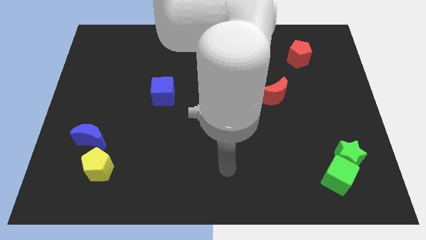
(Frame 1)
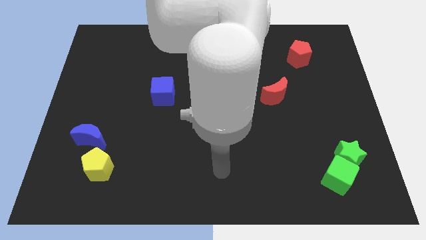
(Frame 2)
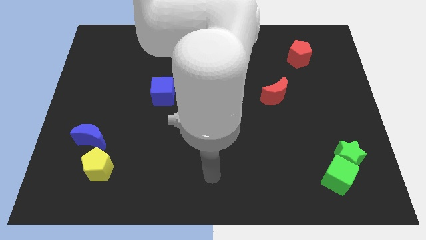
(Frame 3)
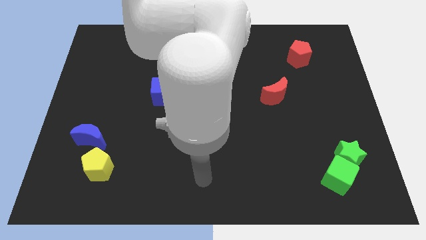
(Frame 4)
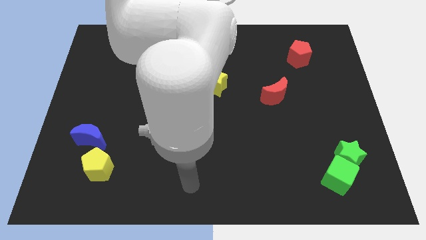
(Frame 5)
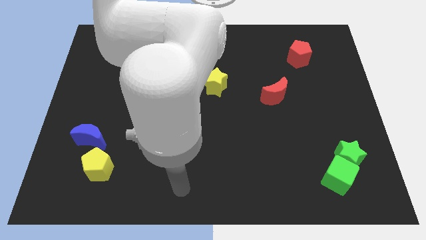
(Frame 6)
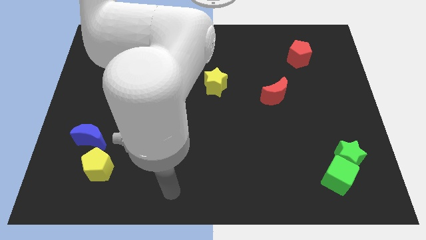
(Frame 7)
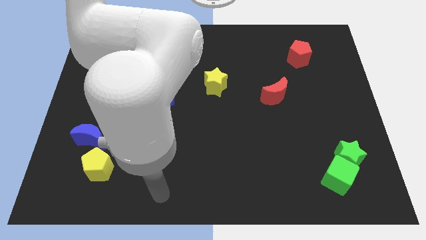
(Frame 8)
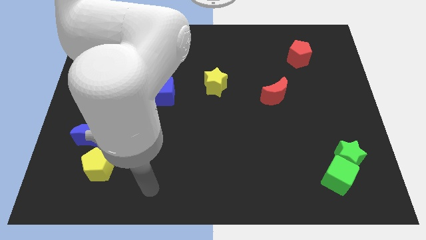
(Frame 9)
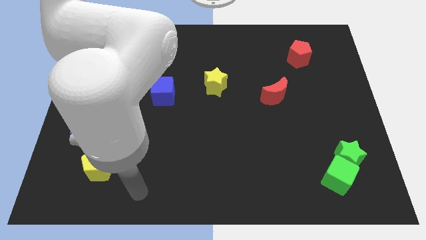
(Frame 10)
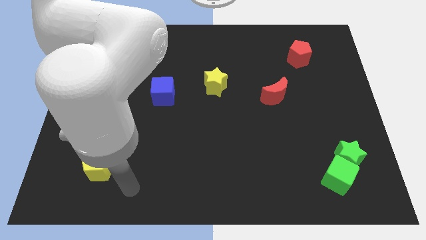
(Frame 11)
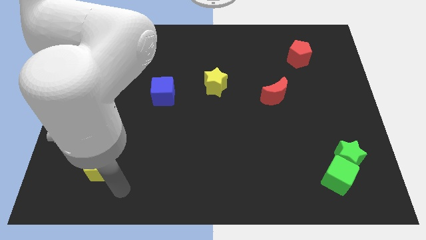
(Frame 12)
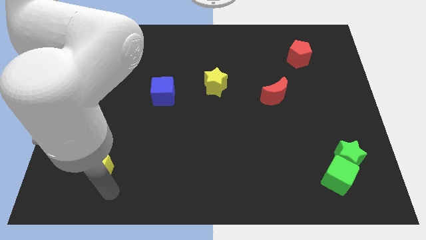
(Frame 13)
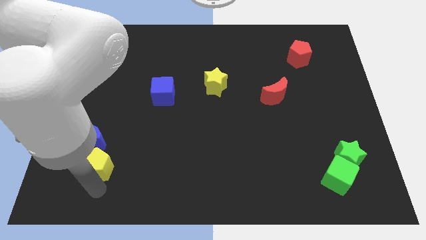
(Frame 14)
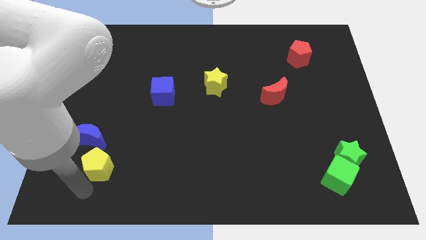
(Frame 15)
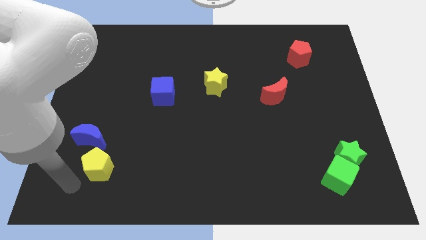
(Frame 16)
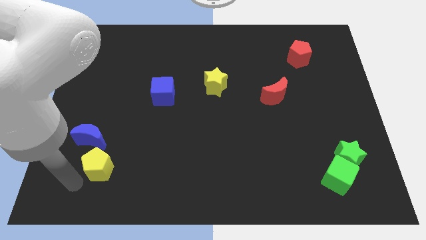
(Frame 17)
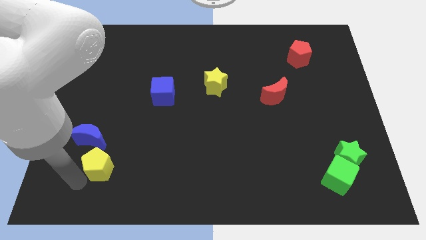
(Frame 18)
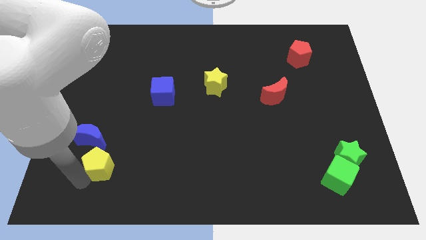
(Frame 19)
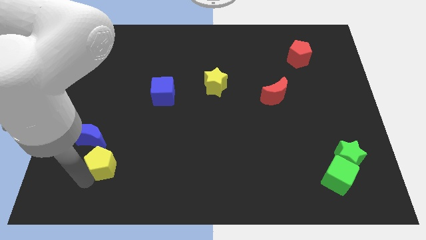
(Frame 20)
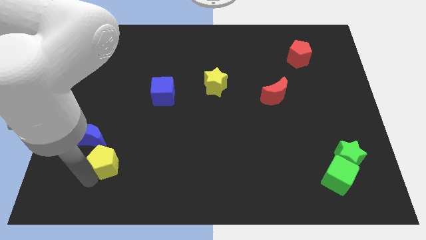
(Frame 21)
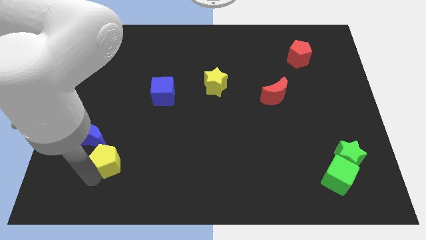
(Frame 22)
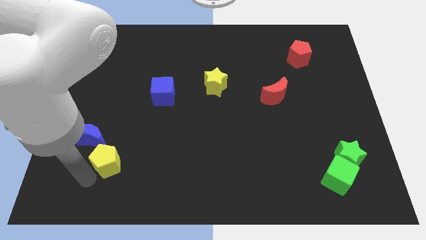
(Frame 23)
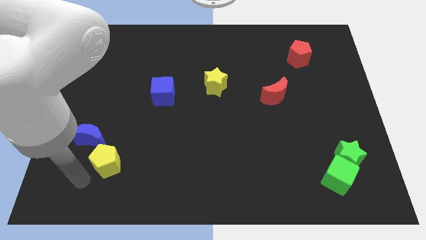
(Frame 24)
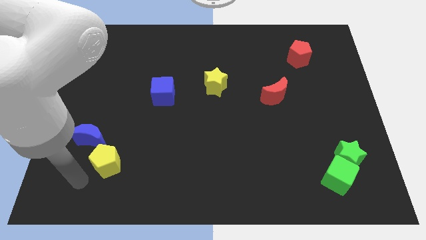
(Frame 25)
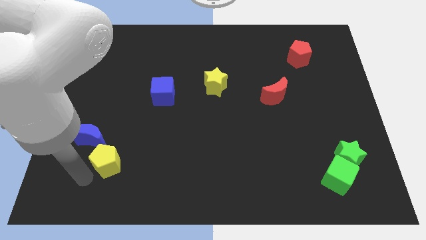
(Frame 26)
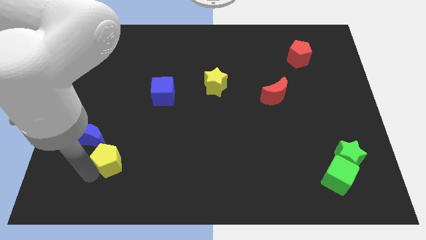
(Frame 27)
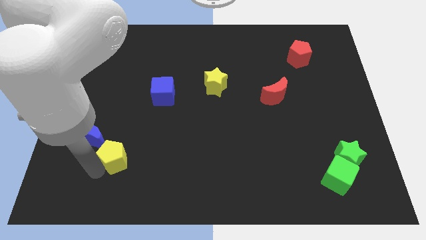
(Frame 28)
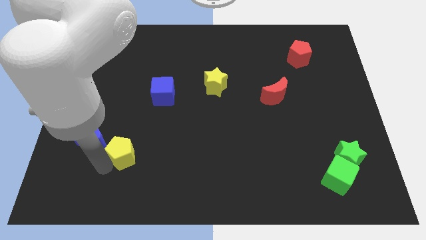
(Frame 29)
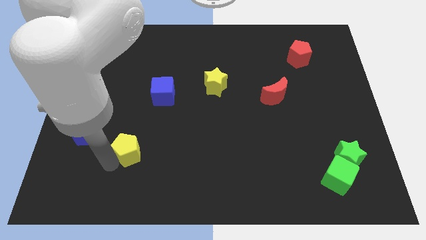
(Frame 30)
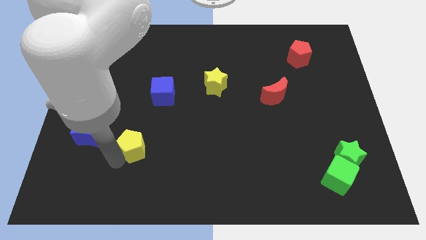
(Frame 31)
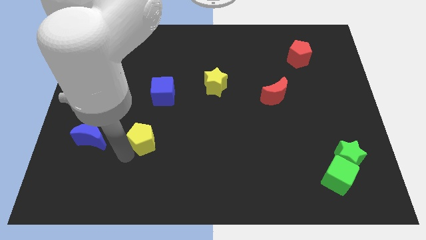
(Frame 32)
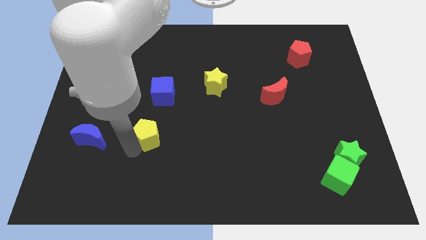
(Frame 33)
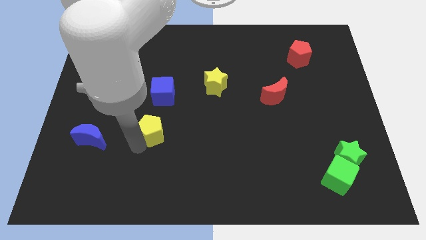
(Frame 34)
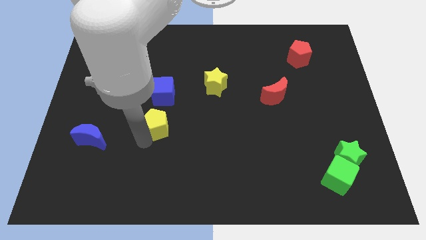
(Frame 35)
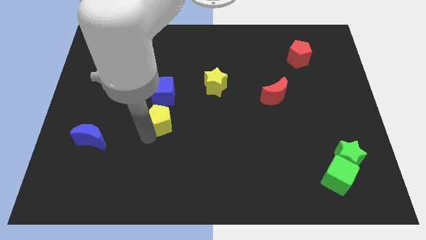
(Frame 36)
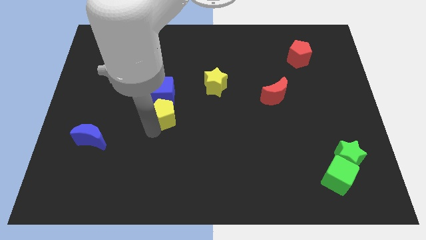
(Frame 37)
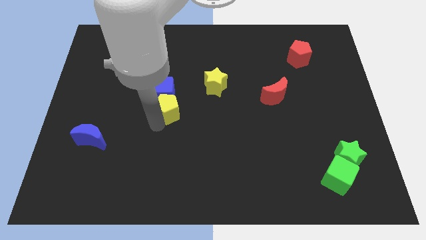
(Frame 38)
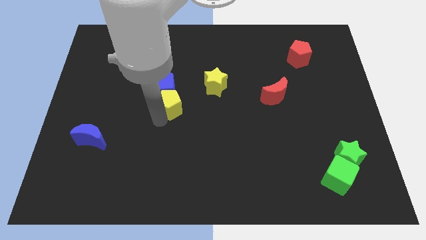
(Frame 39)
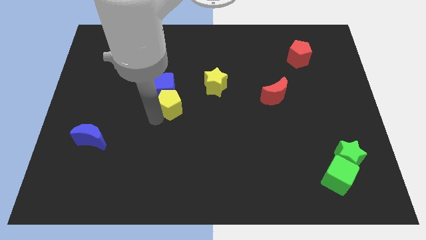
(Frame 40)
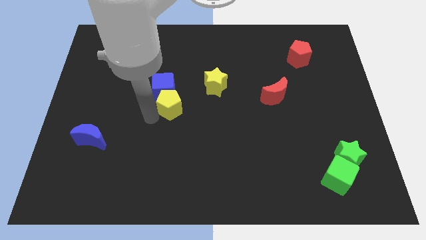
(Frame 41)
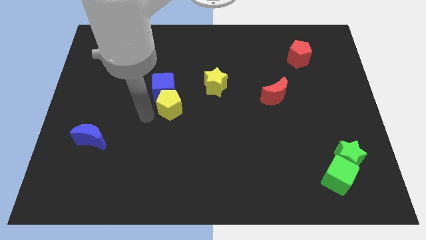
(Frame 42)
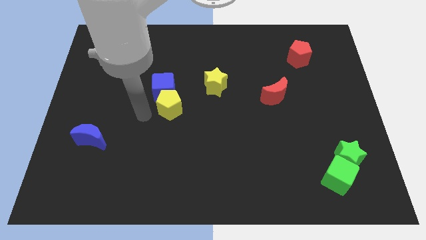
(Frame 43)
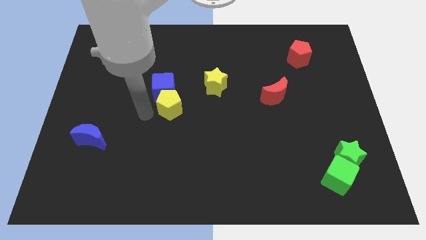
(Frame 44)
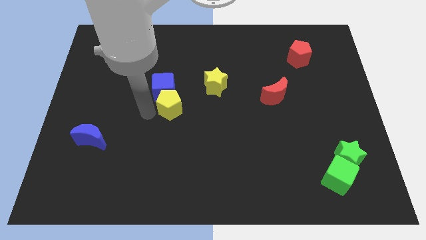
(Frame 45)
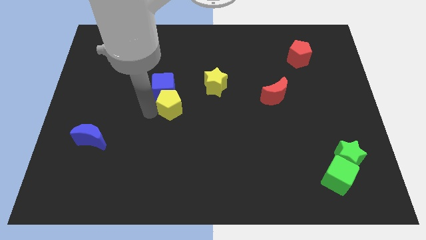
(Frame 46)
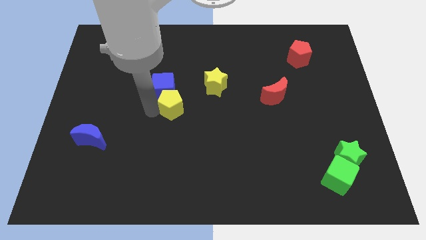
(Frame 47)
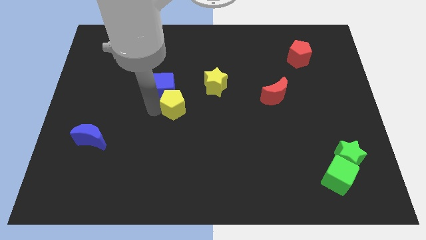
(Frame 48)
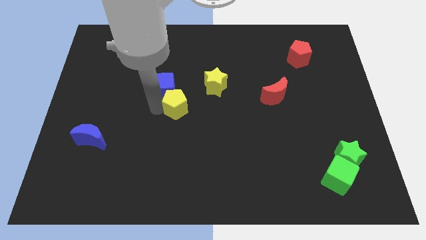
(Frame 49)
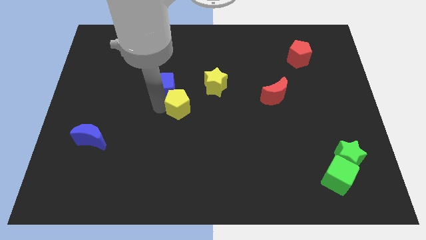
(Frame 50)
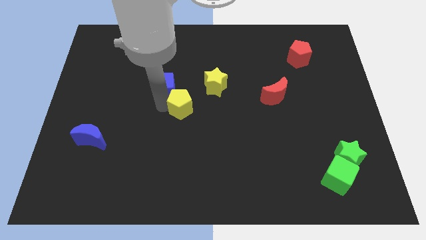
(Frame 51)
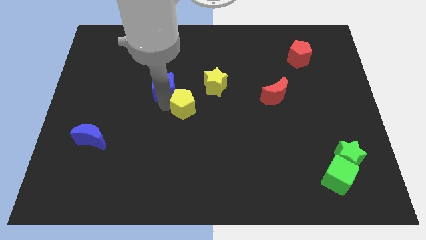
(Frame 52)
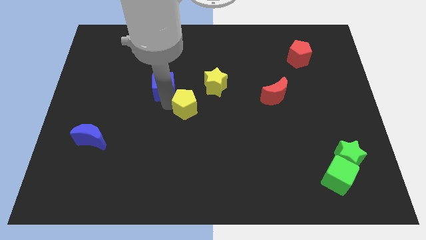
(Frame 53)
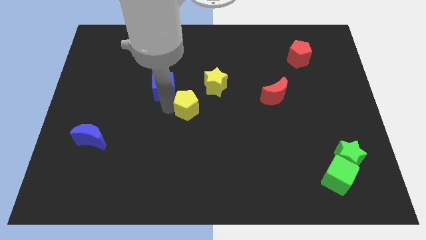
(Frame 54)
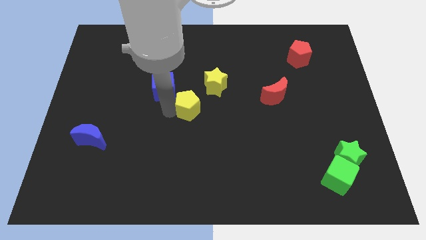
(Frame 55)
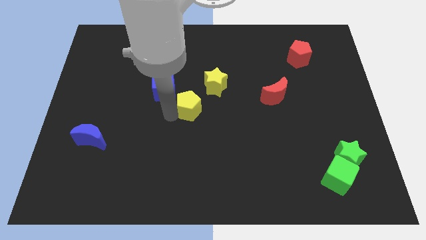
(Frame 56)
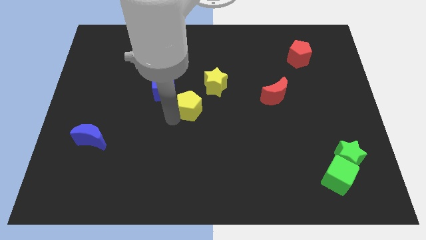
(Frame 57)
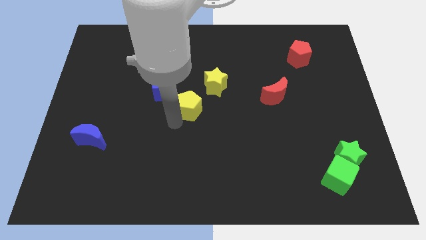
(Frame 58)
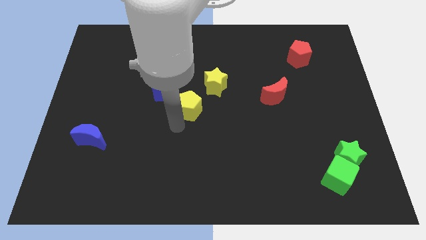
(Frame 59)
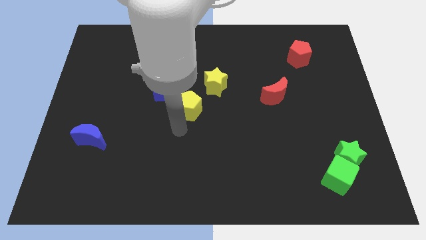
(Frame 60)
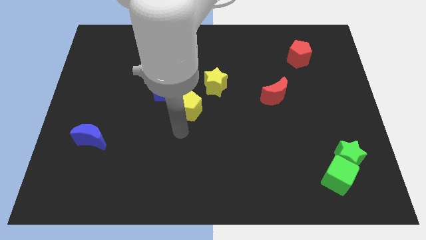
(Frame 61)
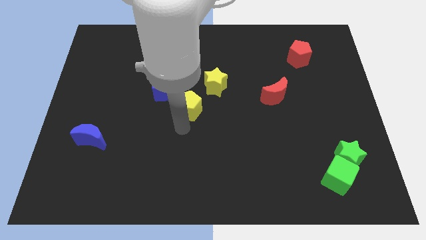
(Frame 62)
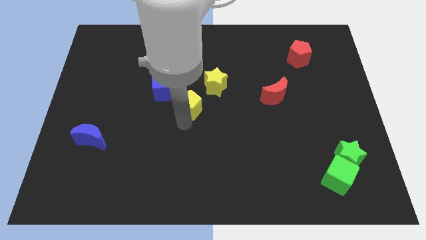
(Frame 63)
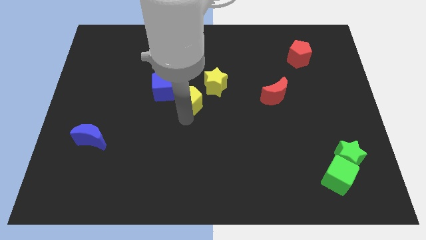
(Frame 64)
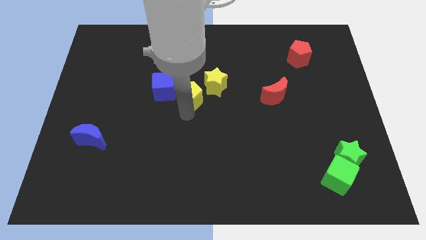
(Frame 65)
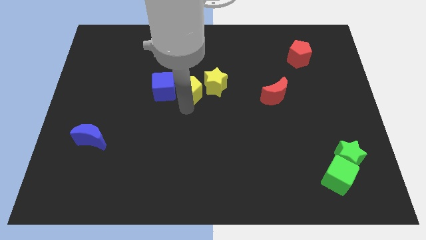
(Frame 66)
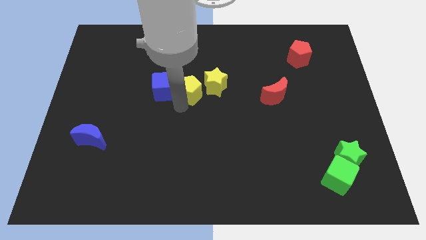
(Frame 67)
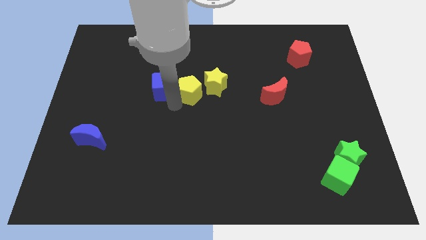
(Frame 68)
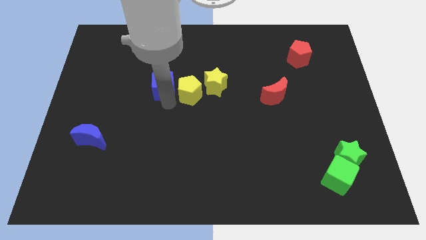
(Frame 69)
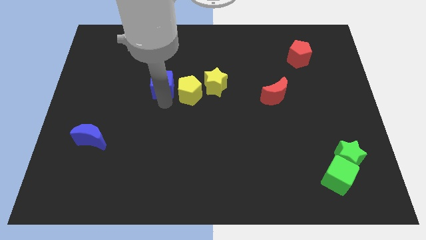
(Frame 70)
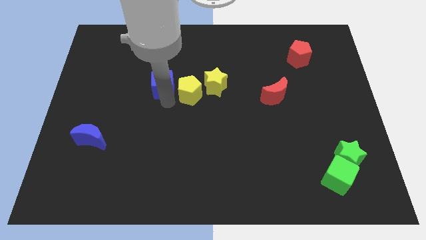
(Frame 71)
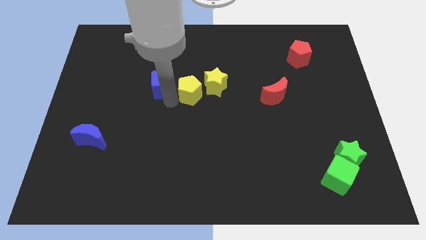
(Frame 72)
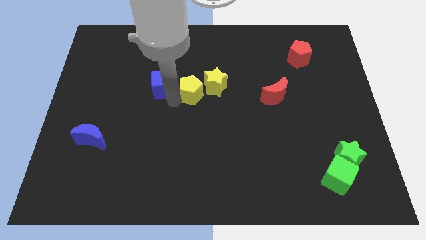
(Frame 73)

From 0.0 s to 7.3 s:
move the yellow pentagon next to the yellow star
